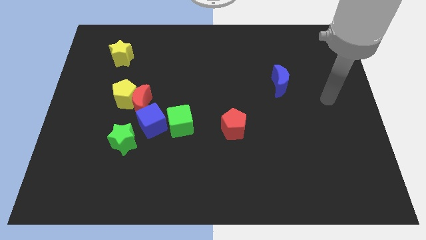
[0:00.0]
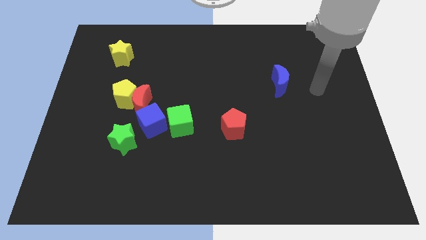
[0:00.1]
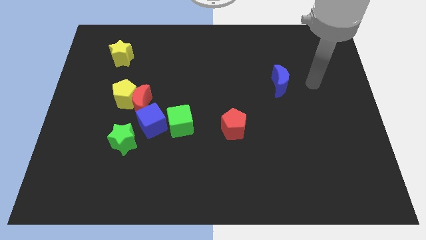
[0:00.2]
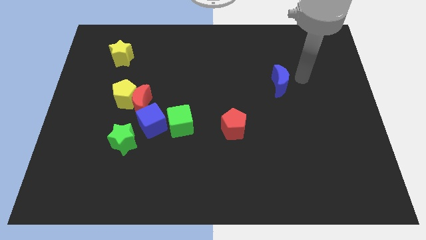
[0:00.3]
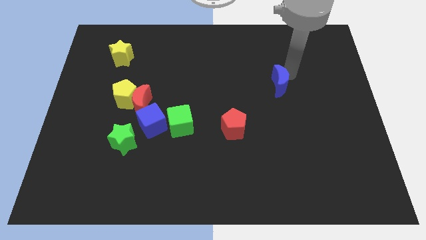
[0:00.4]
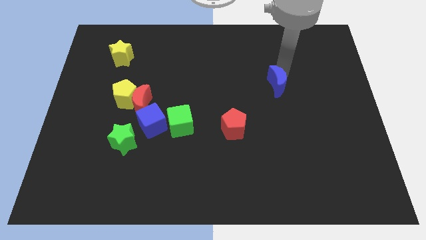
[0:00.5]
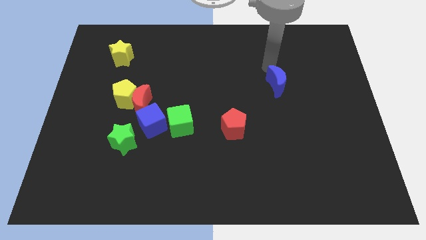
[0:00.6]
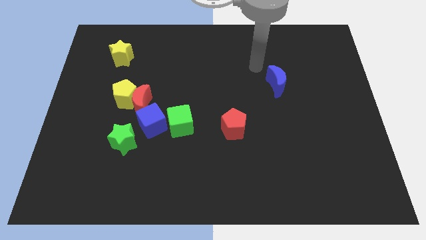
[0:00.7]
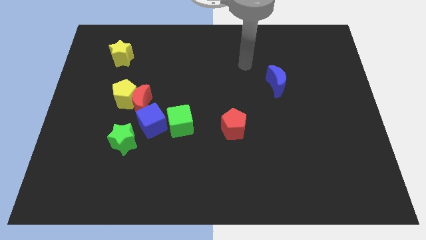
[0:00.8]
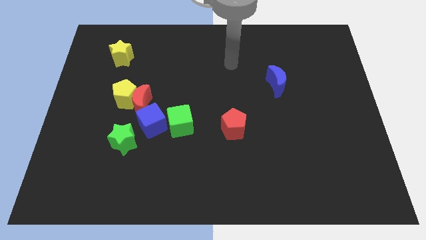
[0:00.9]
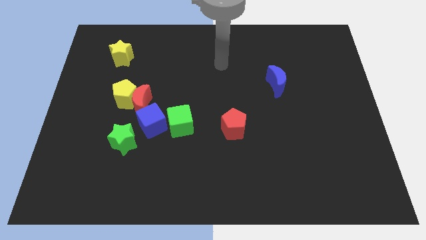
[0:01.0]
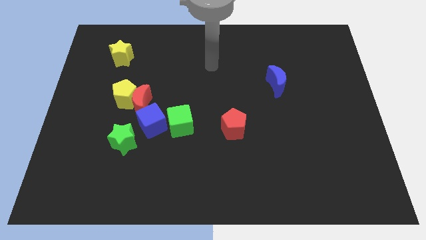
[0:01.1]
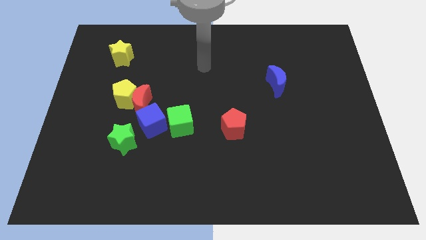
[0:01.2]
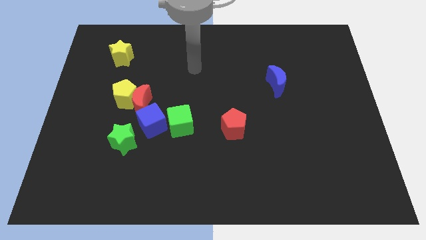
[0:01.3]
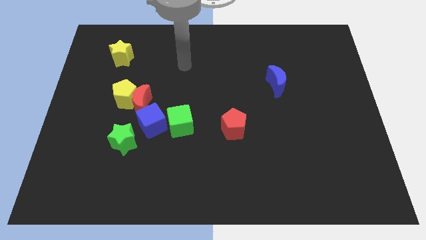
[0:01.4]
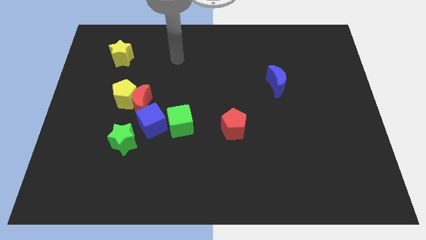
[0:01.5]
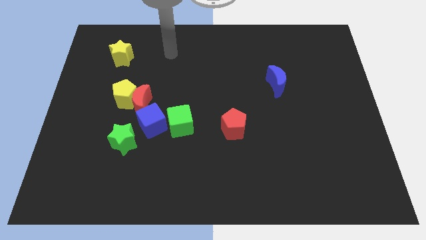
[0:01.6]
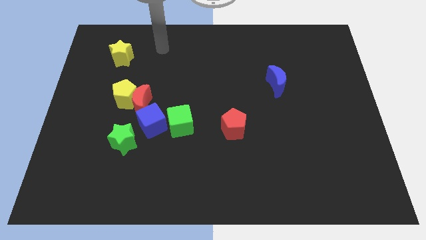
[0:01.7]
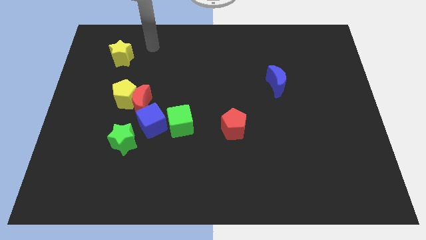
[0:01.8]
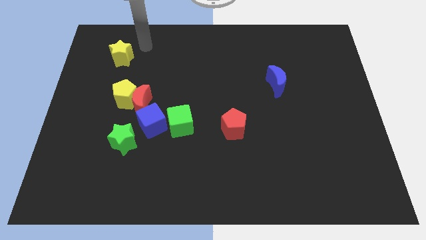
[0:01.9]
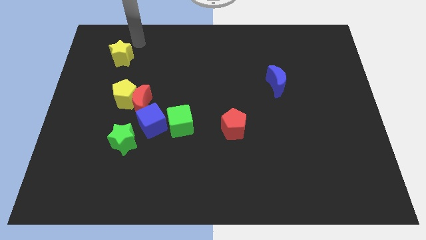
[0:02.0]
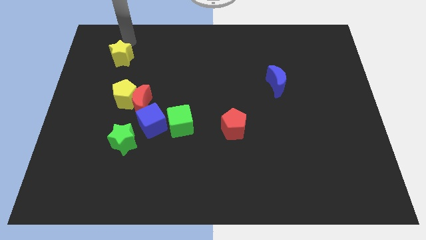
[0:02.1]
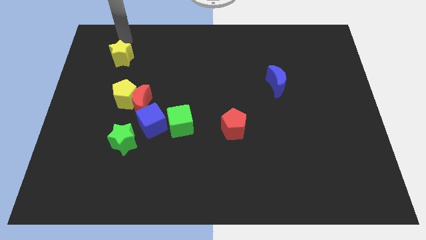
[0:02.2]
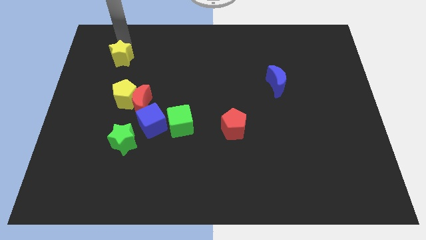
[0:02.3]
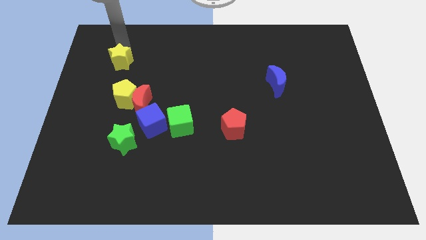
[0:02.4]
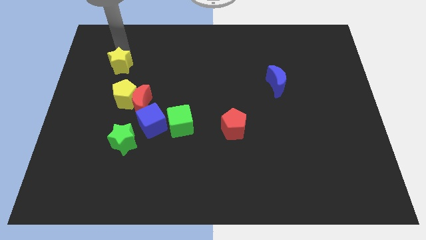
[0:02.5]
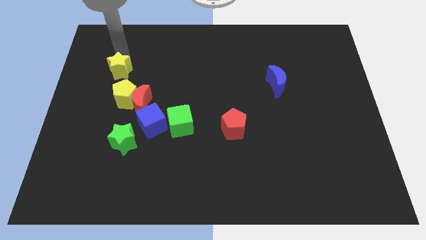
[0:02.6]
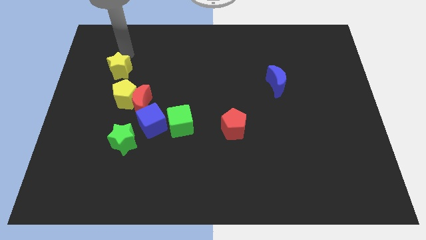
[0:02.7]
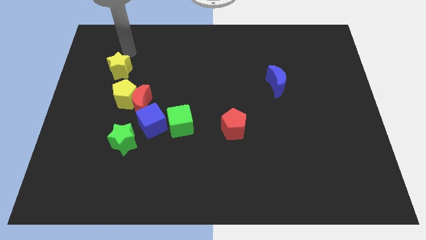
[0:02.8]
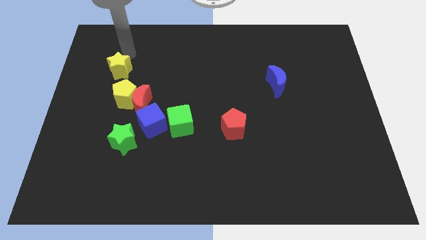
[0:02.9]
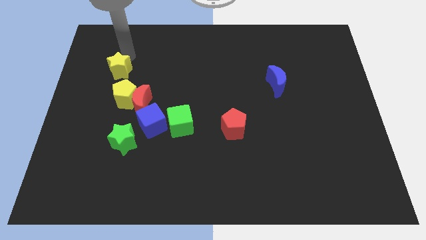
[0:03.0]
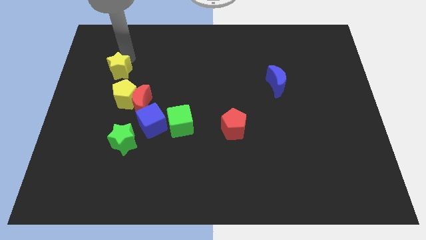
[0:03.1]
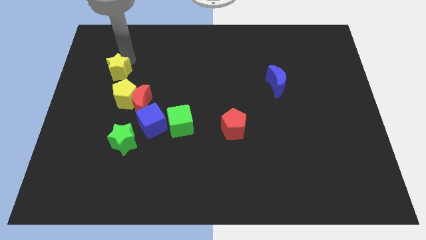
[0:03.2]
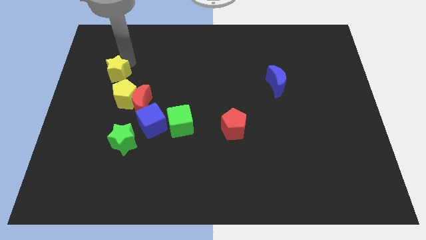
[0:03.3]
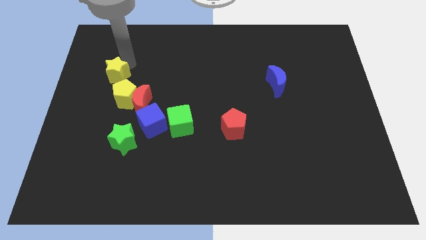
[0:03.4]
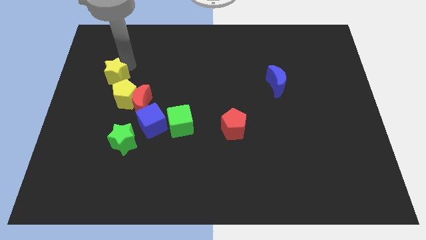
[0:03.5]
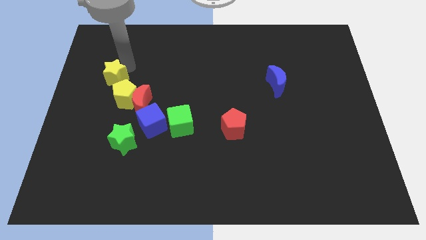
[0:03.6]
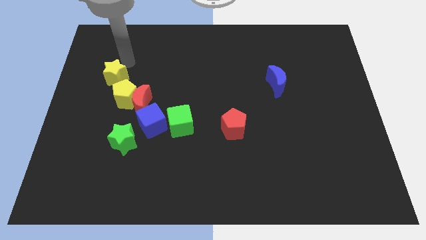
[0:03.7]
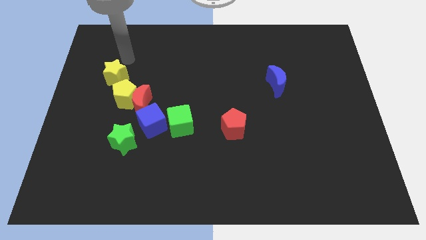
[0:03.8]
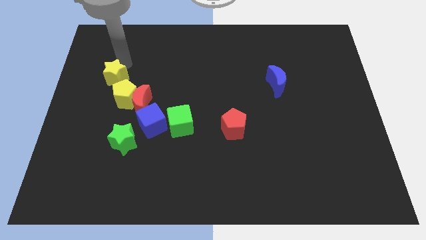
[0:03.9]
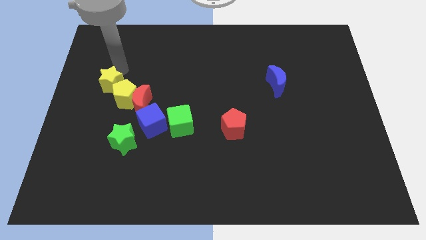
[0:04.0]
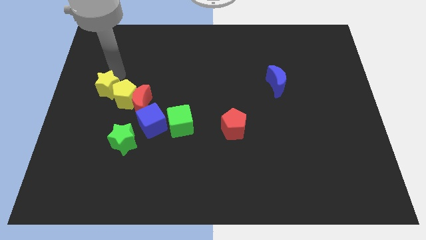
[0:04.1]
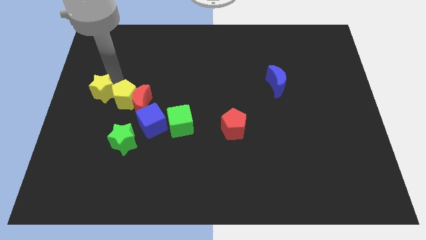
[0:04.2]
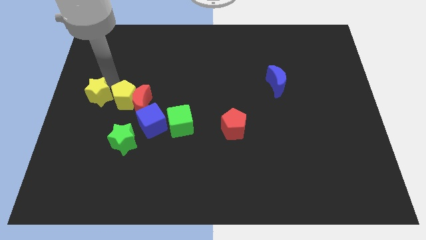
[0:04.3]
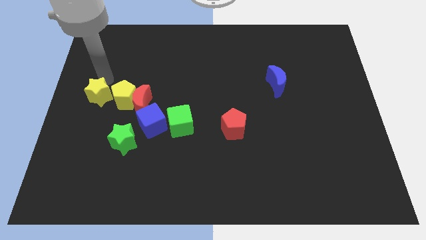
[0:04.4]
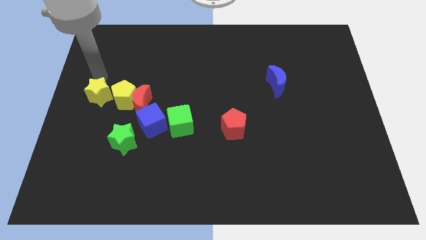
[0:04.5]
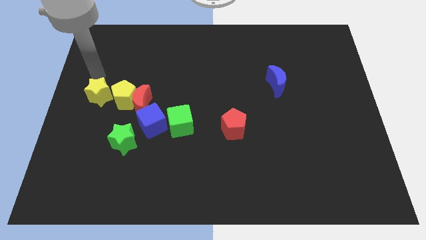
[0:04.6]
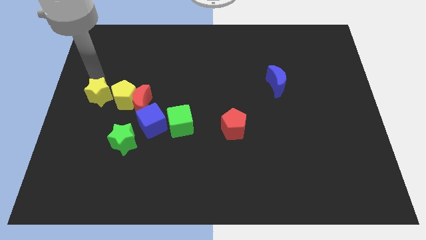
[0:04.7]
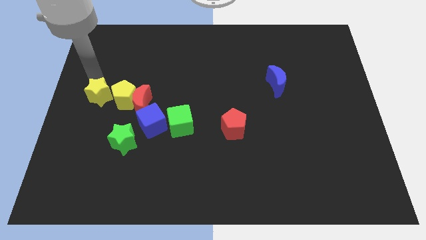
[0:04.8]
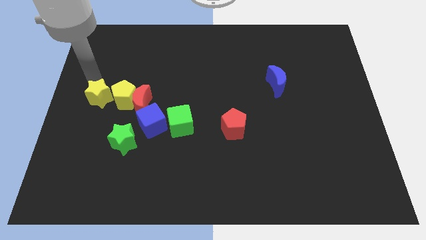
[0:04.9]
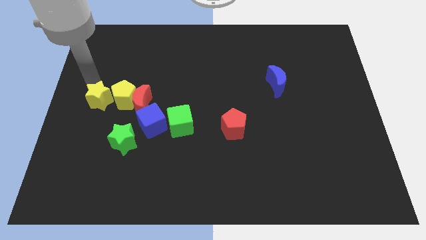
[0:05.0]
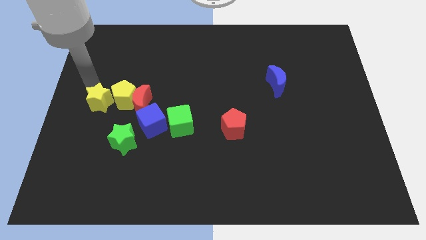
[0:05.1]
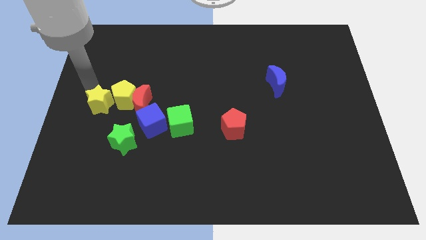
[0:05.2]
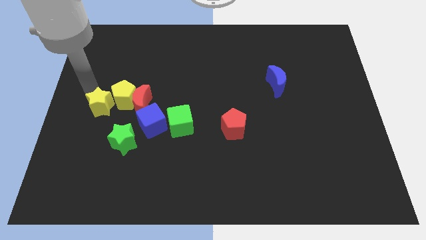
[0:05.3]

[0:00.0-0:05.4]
push the yellow star to the top left of the green star

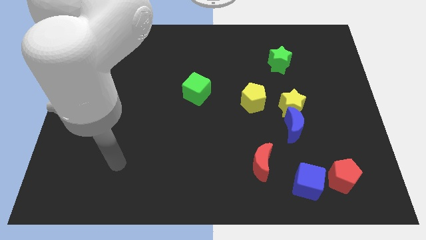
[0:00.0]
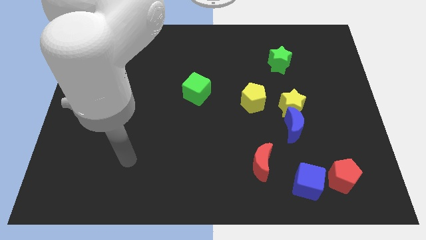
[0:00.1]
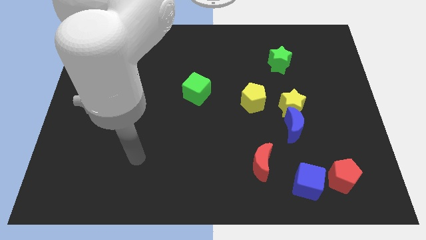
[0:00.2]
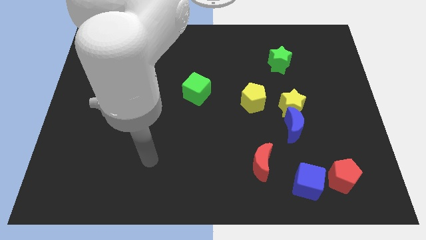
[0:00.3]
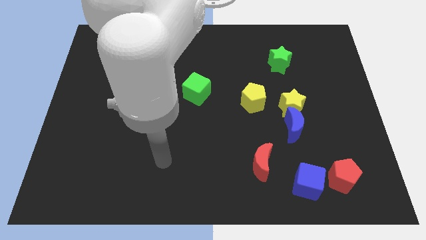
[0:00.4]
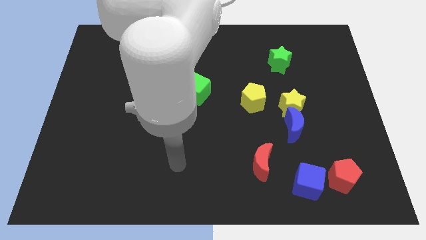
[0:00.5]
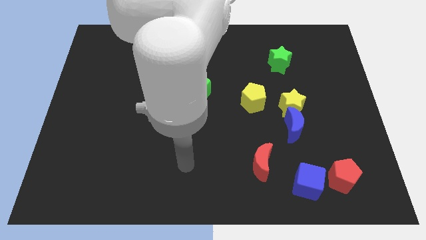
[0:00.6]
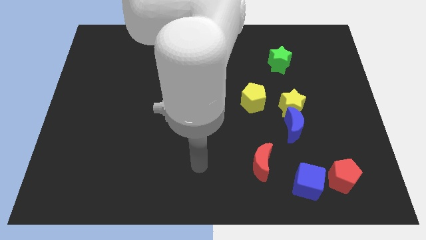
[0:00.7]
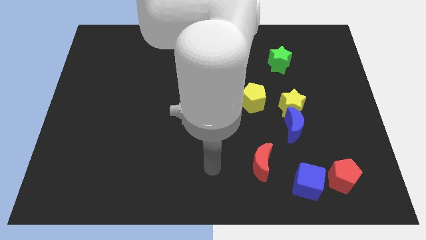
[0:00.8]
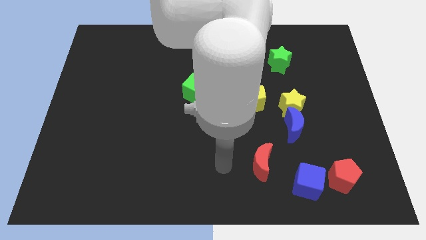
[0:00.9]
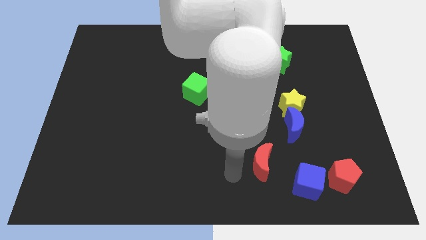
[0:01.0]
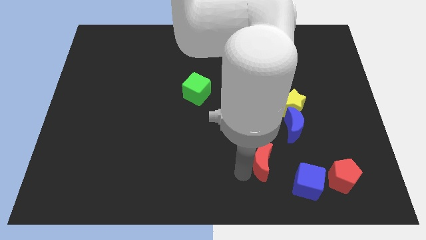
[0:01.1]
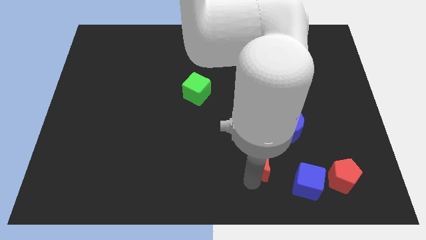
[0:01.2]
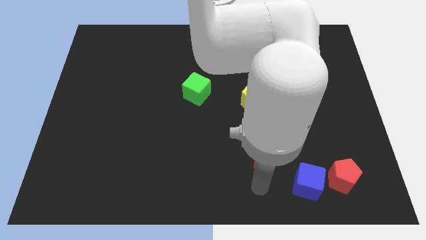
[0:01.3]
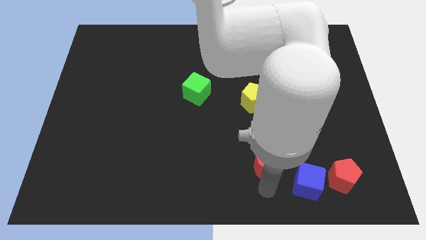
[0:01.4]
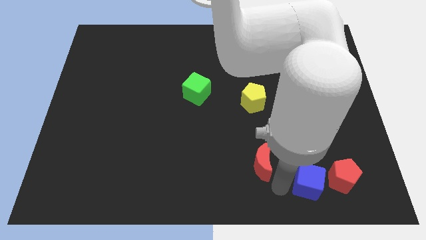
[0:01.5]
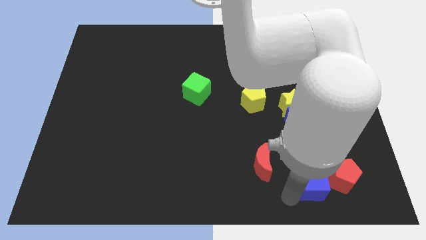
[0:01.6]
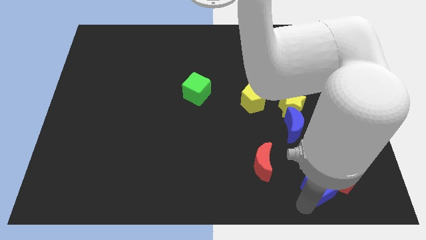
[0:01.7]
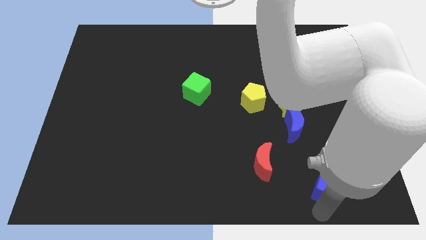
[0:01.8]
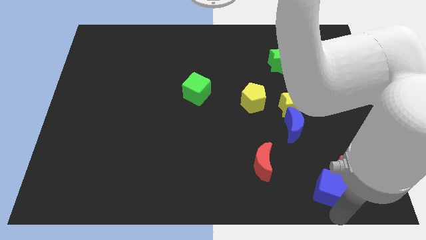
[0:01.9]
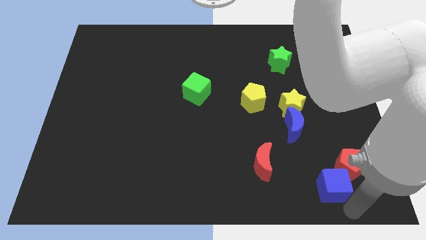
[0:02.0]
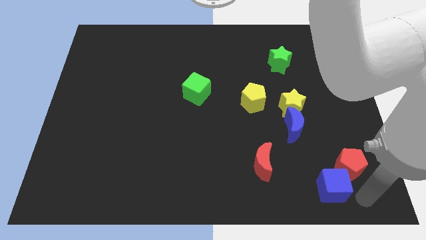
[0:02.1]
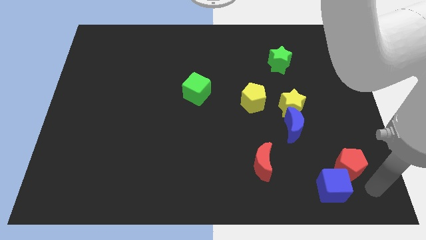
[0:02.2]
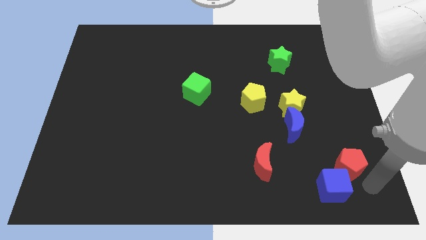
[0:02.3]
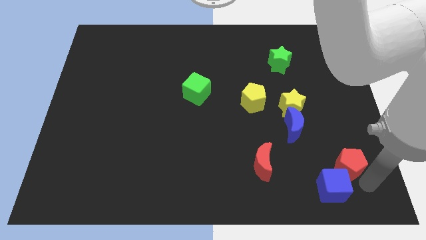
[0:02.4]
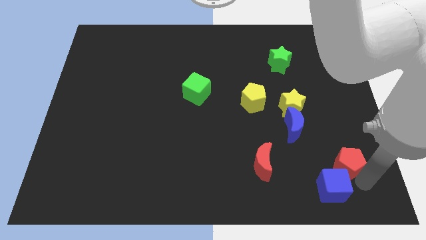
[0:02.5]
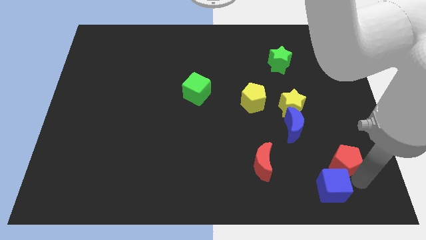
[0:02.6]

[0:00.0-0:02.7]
put the red pentagon diagonally down and to the right of the blue moon
